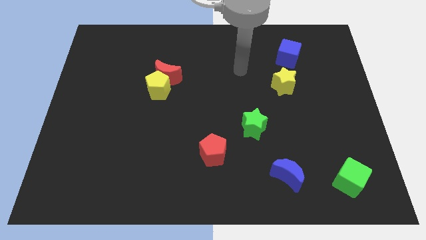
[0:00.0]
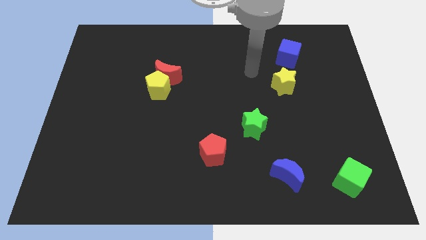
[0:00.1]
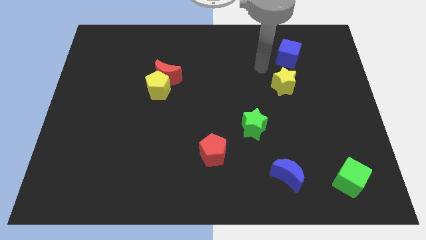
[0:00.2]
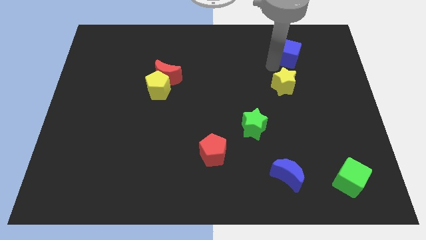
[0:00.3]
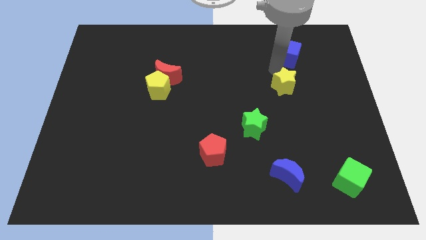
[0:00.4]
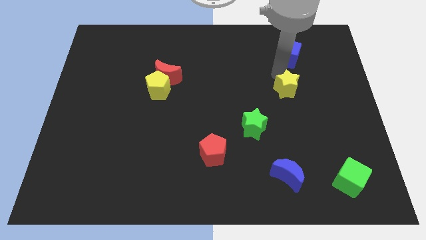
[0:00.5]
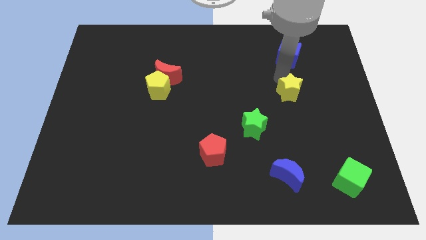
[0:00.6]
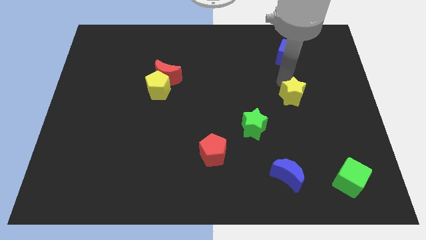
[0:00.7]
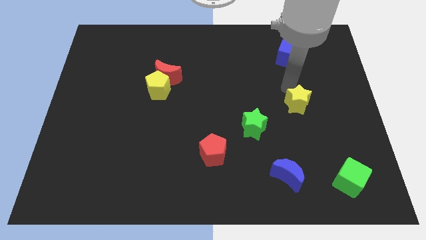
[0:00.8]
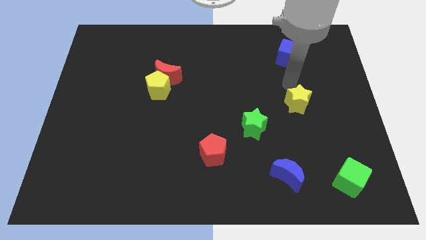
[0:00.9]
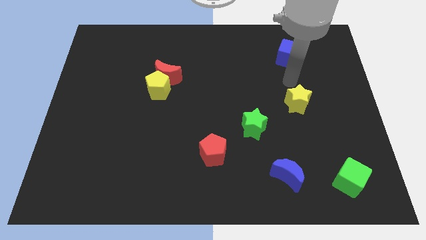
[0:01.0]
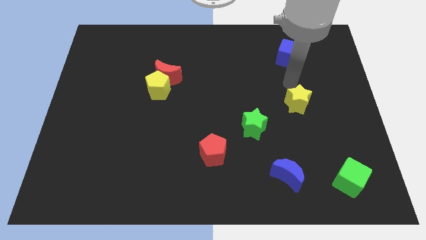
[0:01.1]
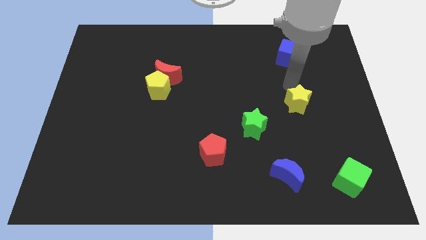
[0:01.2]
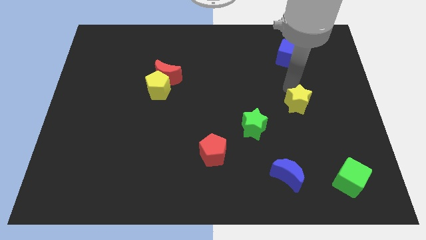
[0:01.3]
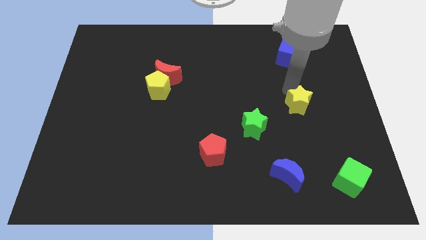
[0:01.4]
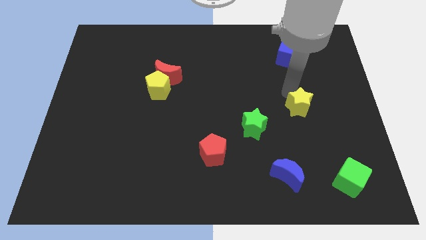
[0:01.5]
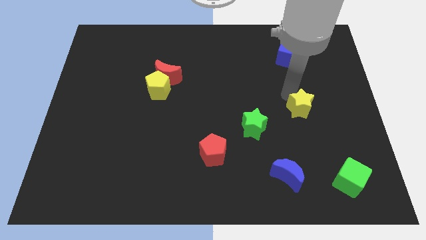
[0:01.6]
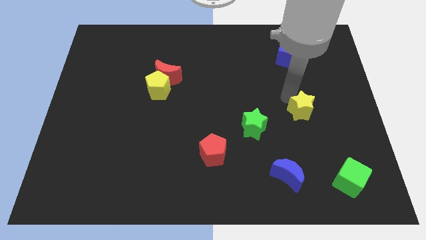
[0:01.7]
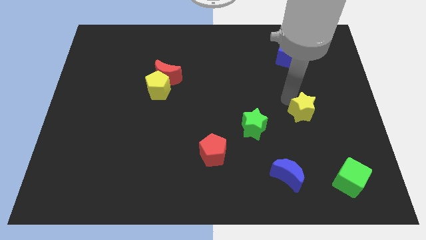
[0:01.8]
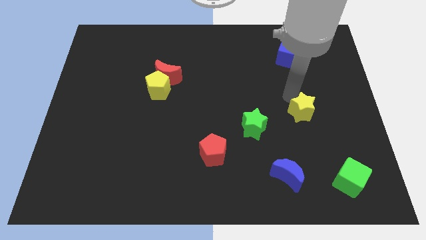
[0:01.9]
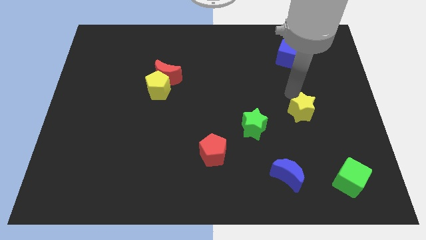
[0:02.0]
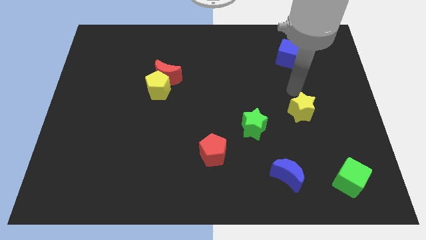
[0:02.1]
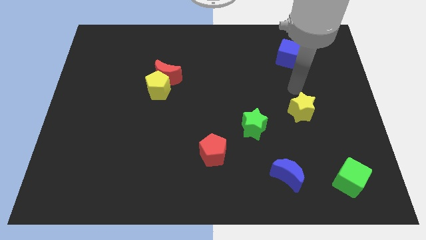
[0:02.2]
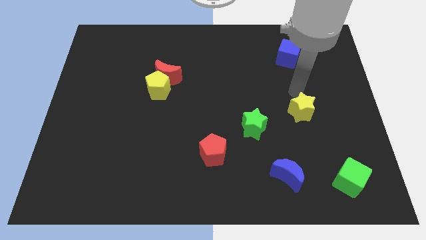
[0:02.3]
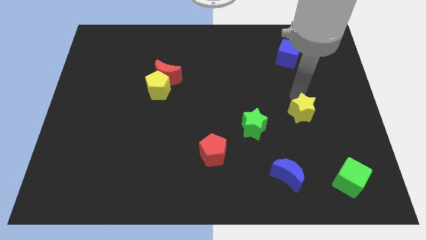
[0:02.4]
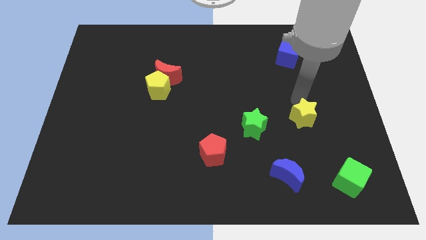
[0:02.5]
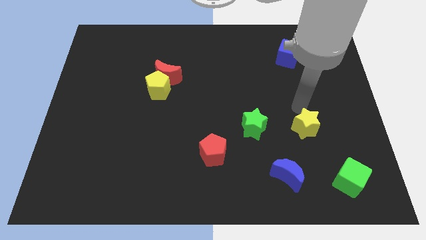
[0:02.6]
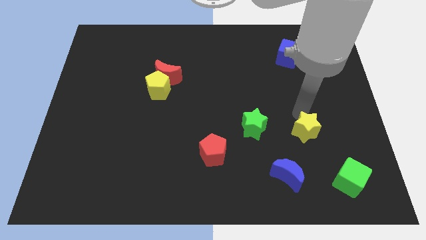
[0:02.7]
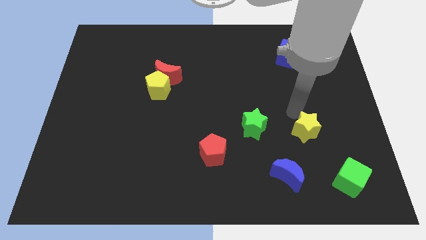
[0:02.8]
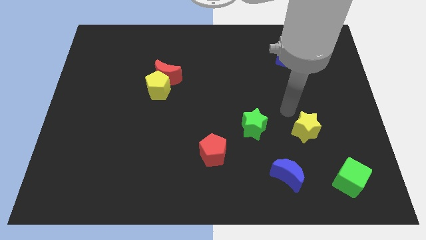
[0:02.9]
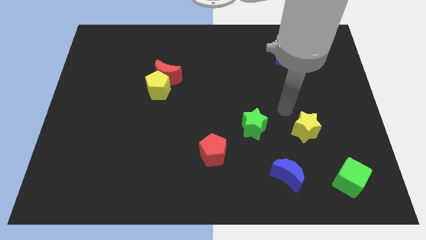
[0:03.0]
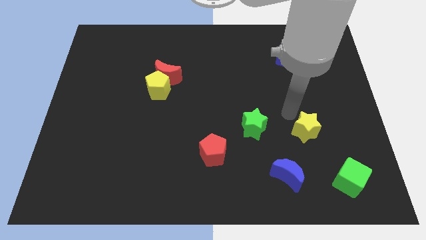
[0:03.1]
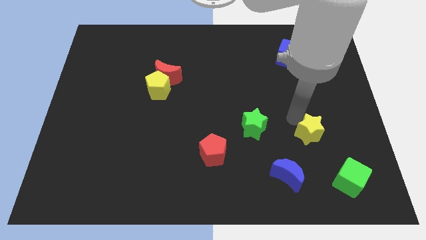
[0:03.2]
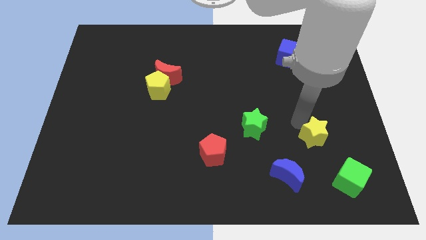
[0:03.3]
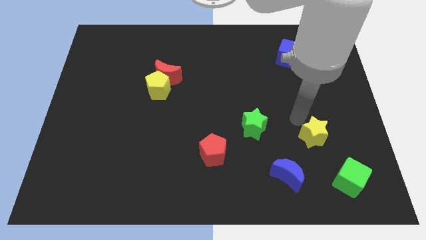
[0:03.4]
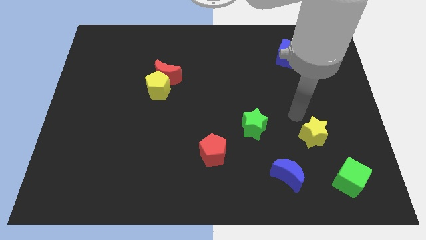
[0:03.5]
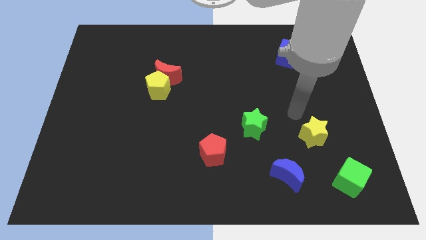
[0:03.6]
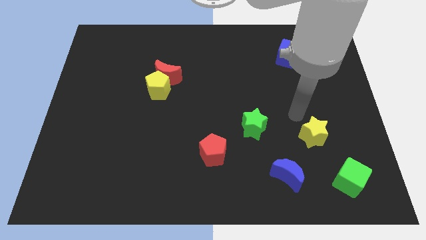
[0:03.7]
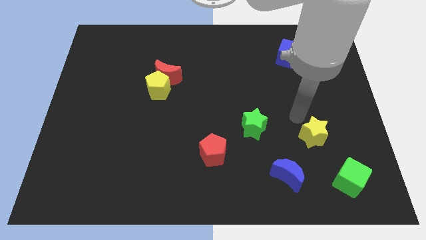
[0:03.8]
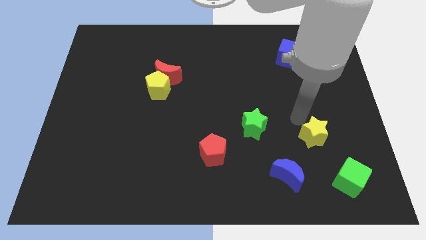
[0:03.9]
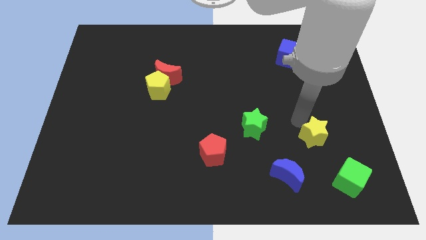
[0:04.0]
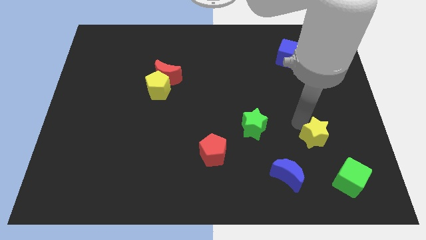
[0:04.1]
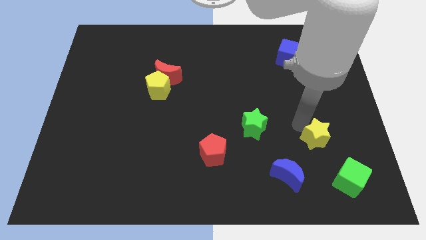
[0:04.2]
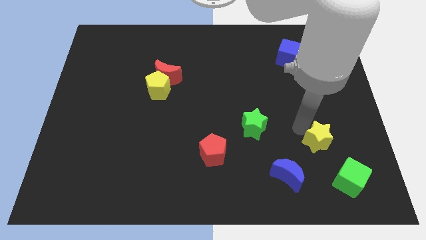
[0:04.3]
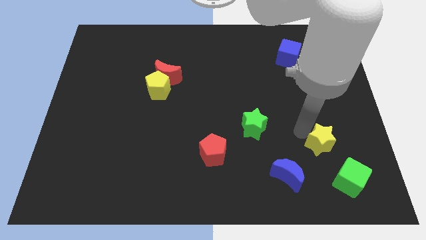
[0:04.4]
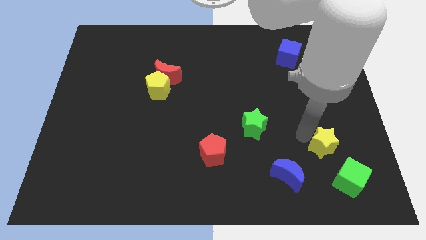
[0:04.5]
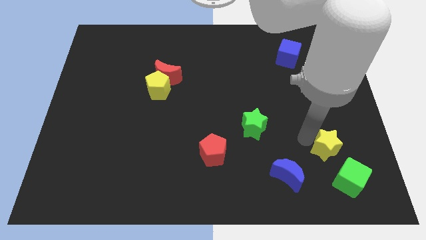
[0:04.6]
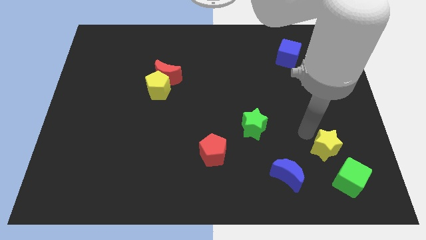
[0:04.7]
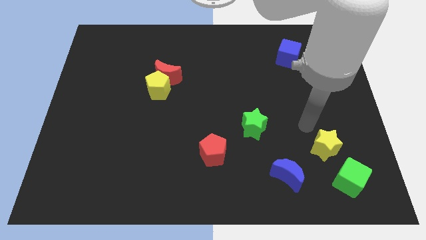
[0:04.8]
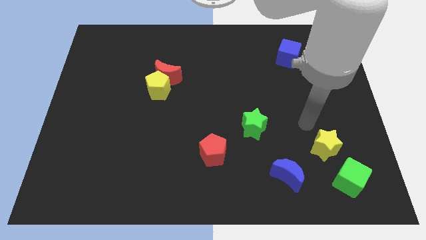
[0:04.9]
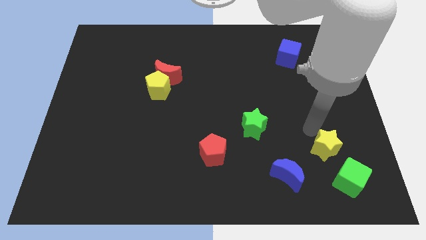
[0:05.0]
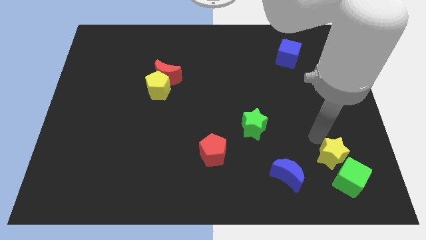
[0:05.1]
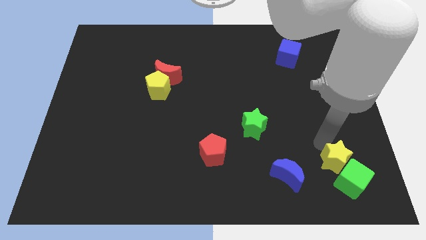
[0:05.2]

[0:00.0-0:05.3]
move the yellow star close to the green cube

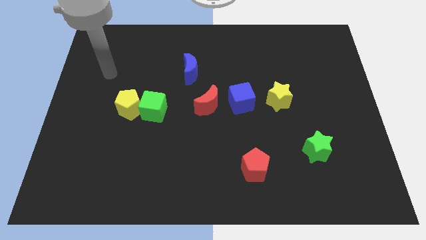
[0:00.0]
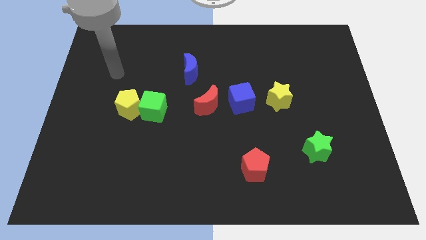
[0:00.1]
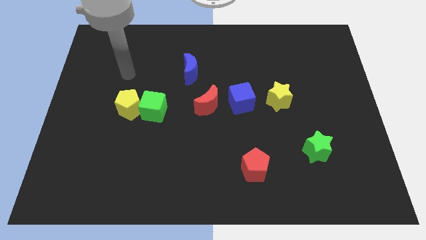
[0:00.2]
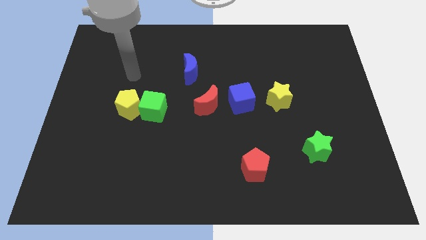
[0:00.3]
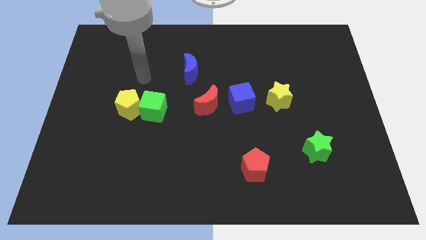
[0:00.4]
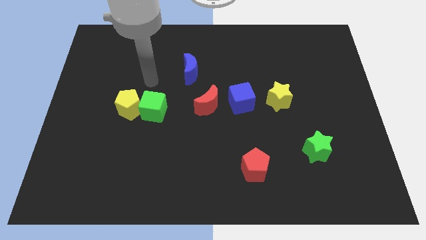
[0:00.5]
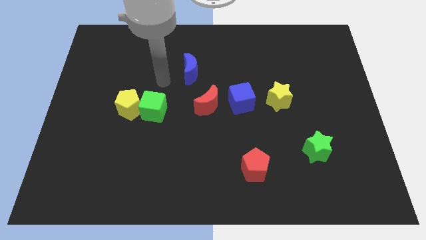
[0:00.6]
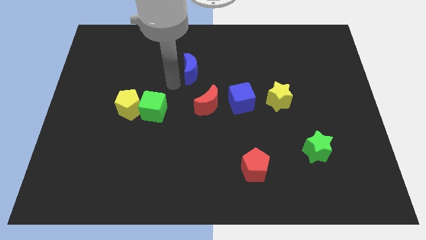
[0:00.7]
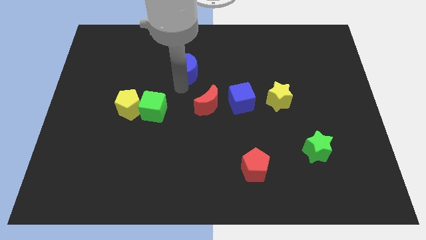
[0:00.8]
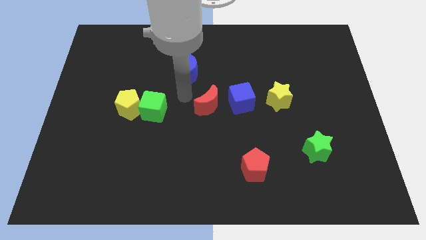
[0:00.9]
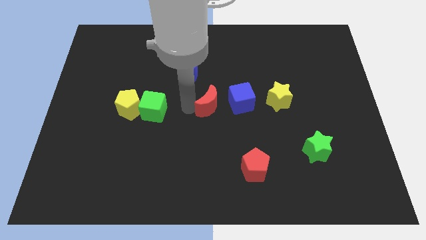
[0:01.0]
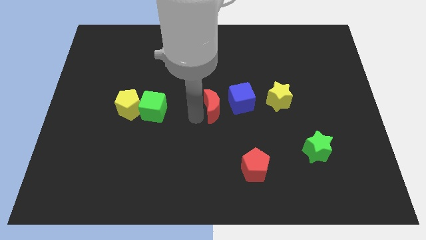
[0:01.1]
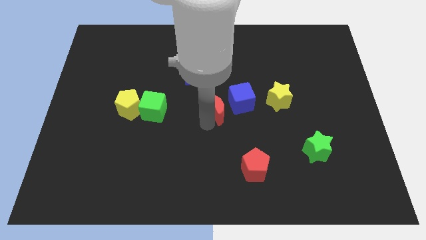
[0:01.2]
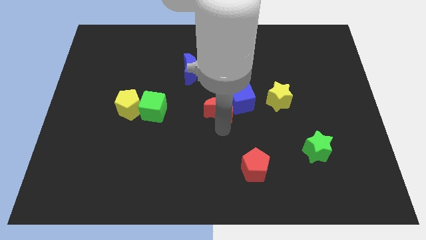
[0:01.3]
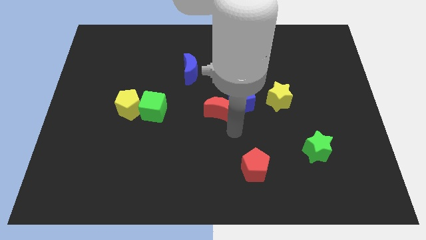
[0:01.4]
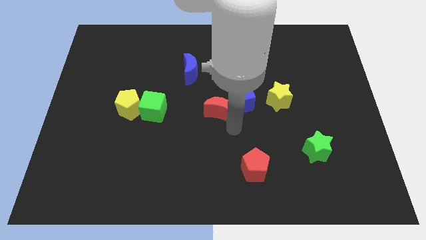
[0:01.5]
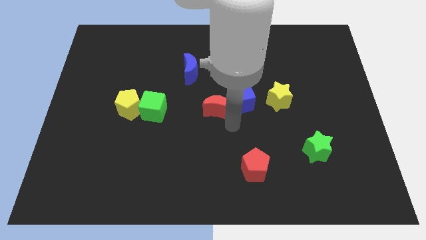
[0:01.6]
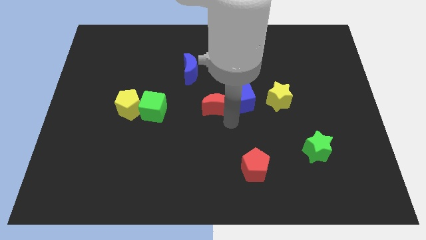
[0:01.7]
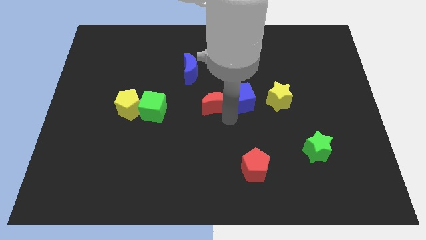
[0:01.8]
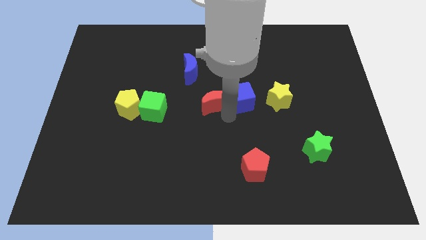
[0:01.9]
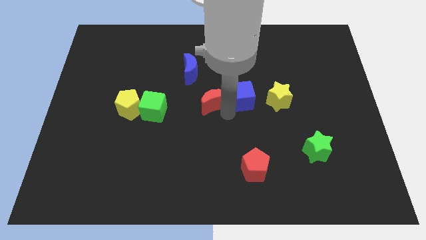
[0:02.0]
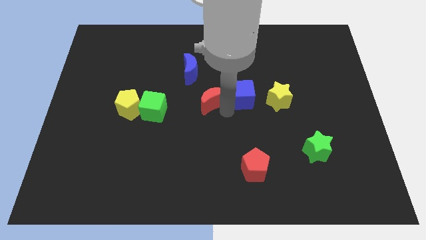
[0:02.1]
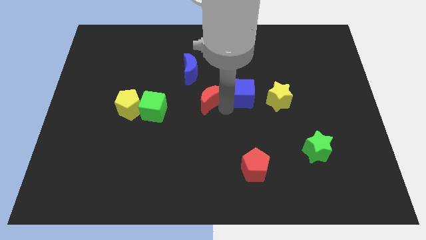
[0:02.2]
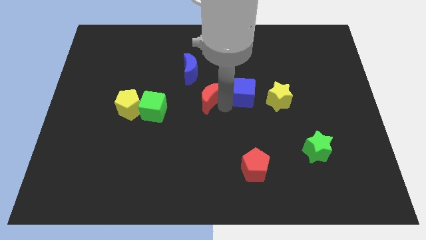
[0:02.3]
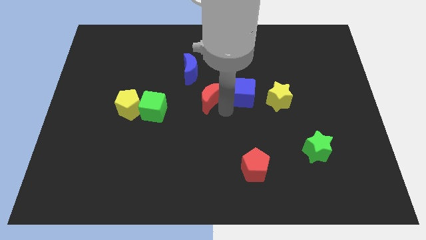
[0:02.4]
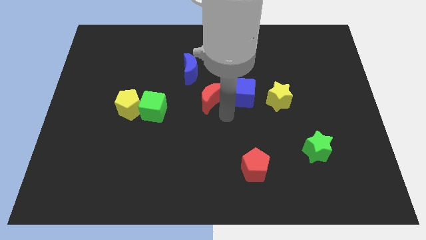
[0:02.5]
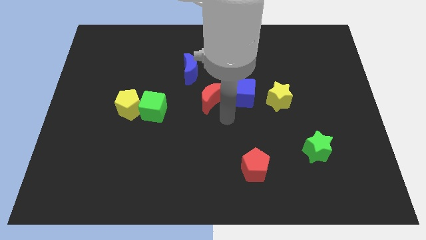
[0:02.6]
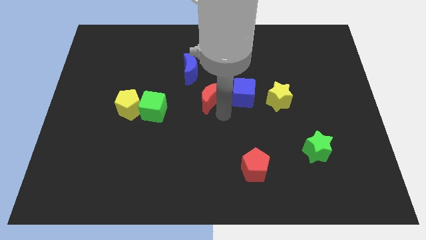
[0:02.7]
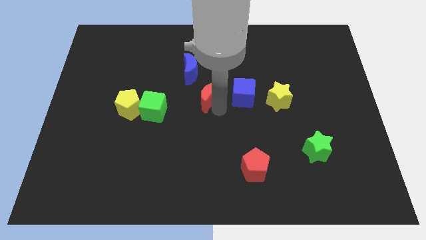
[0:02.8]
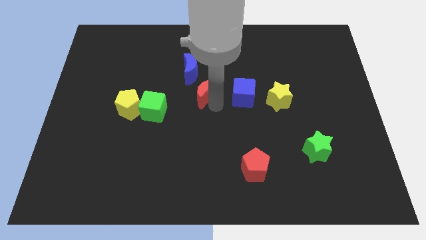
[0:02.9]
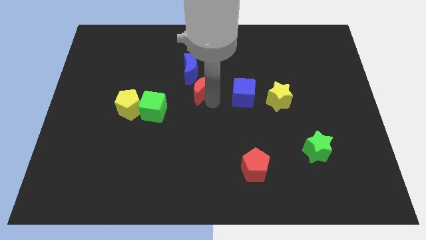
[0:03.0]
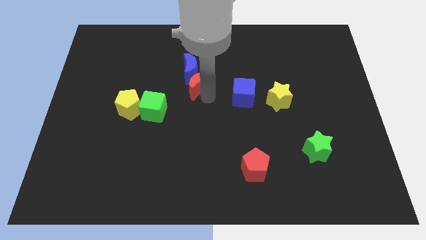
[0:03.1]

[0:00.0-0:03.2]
put the red moon towards the blue moon
